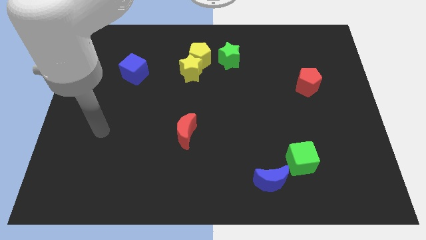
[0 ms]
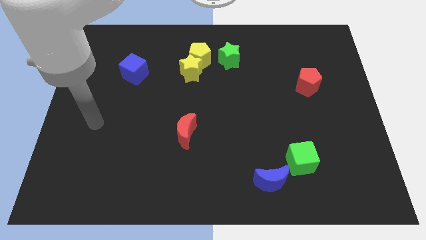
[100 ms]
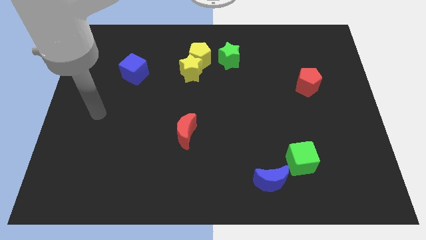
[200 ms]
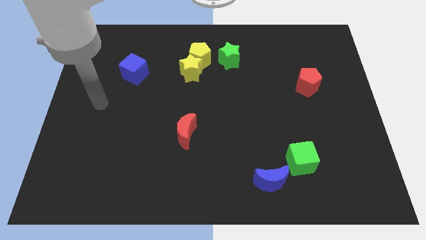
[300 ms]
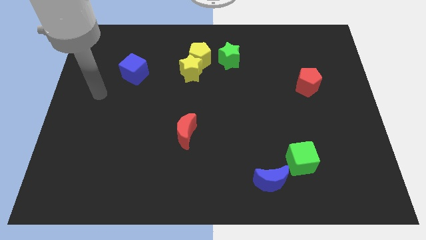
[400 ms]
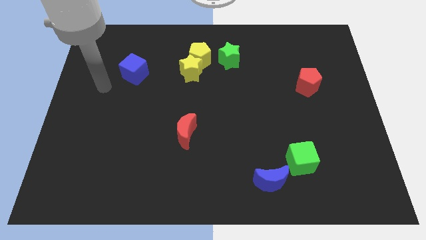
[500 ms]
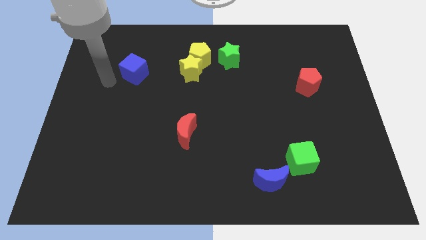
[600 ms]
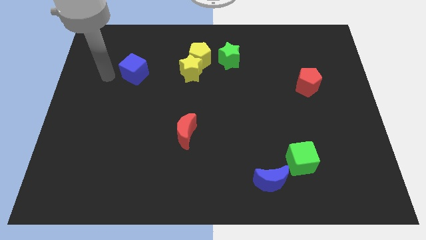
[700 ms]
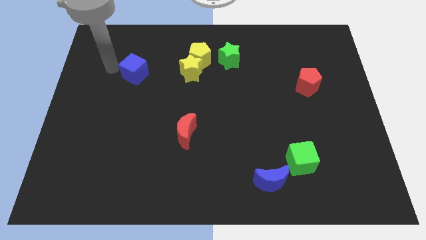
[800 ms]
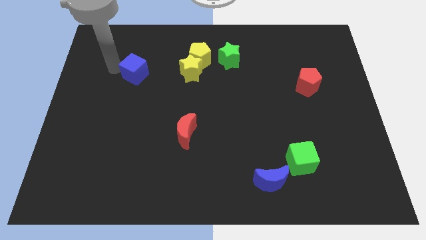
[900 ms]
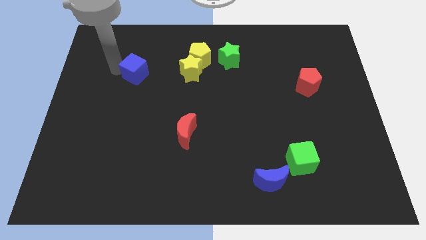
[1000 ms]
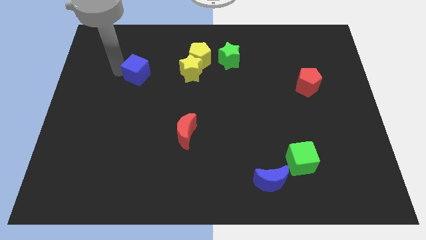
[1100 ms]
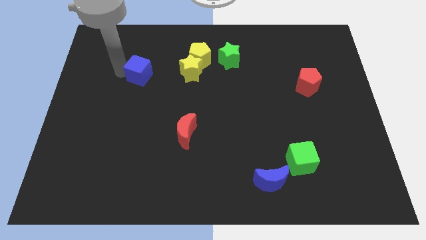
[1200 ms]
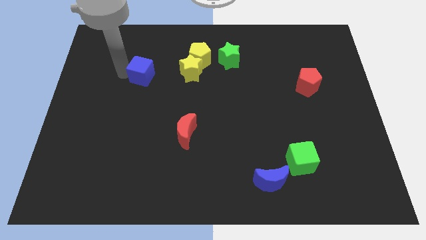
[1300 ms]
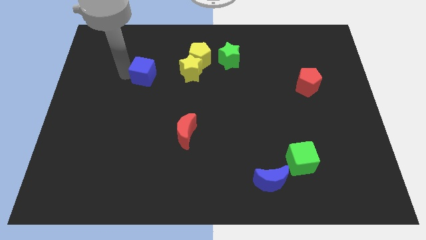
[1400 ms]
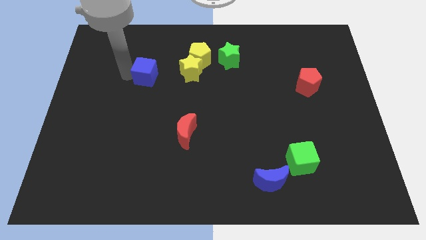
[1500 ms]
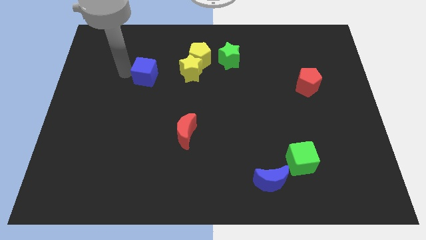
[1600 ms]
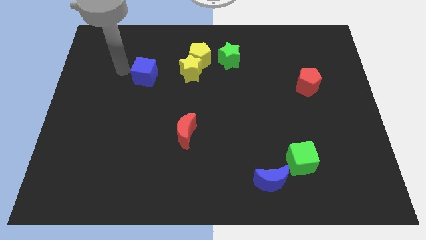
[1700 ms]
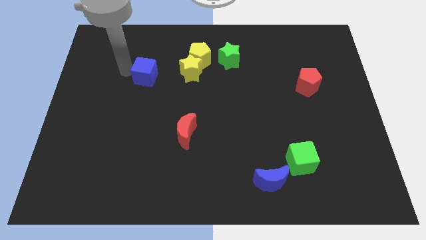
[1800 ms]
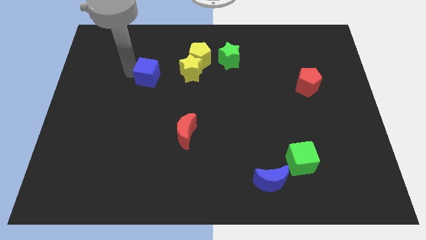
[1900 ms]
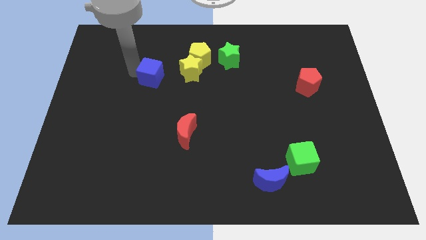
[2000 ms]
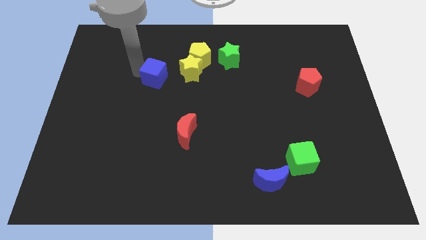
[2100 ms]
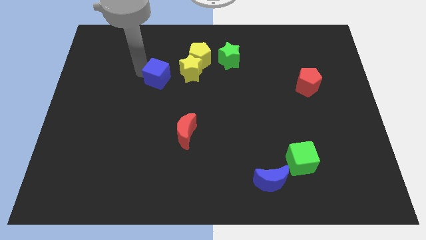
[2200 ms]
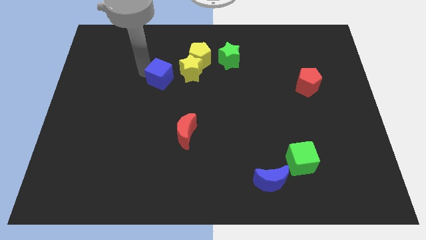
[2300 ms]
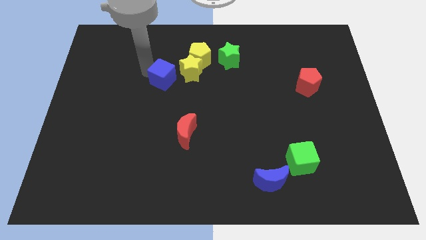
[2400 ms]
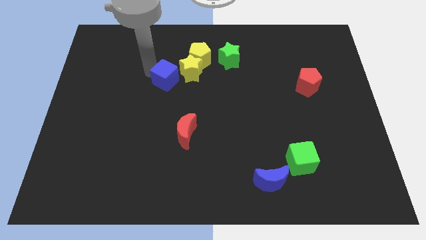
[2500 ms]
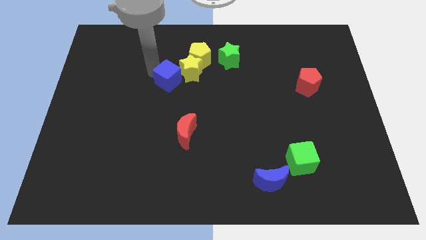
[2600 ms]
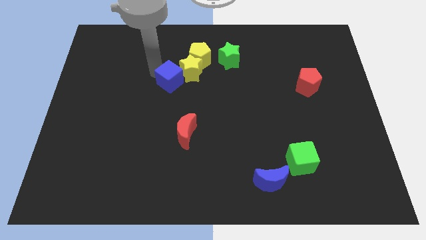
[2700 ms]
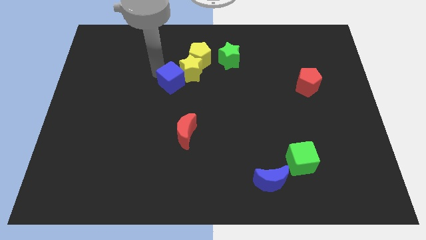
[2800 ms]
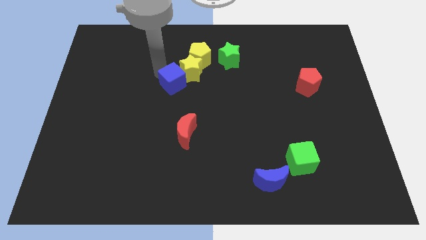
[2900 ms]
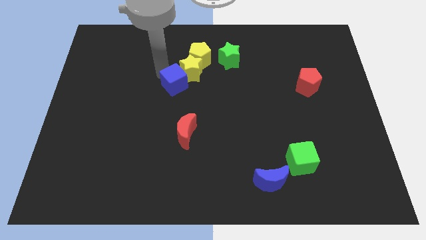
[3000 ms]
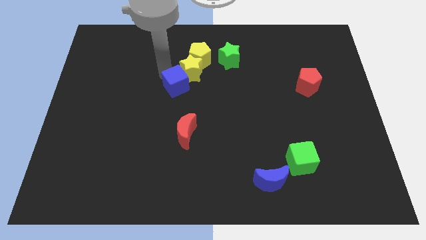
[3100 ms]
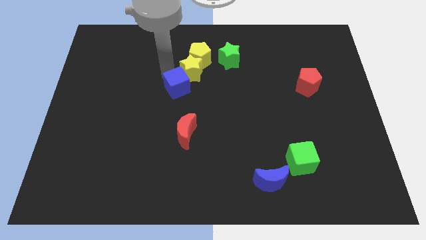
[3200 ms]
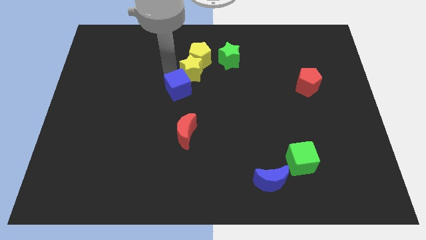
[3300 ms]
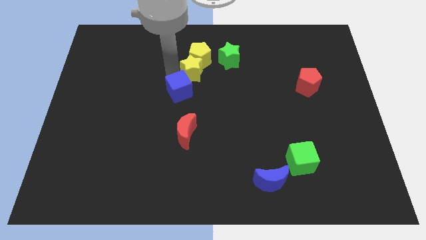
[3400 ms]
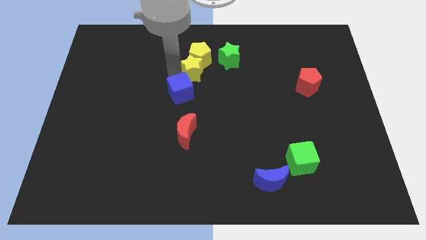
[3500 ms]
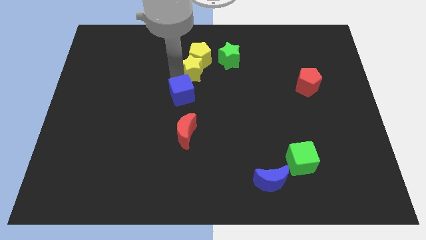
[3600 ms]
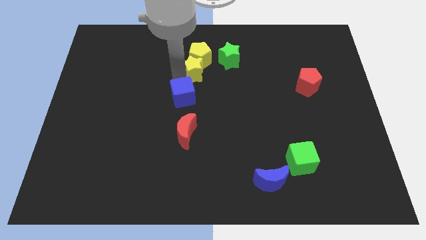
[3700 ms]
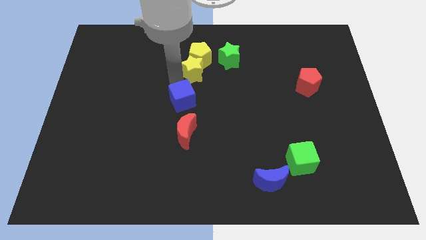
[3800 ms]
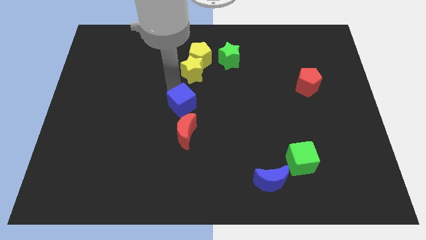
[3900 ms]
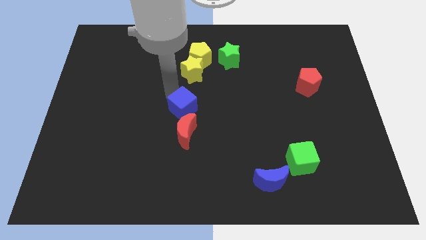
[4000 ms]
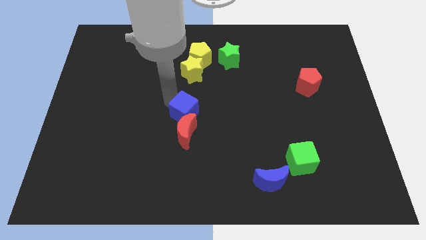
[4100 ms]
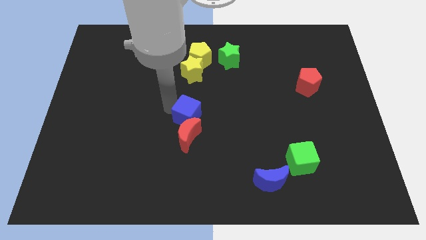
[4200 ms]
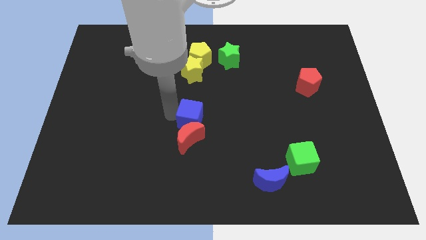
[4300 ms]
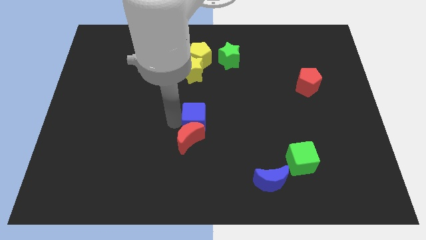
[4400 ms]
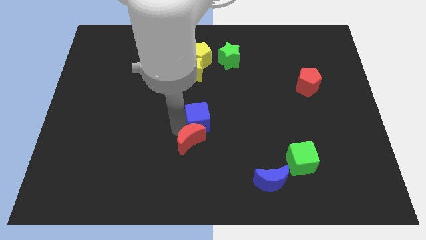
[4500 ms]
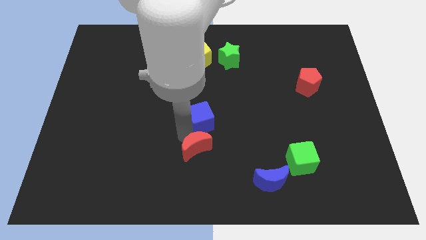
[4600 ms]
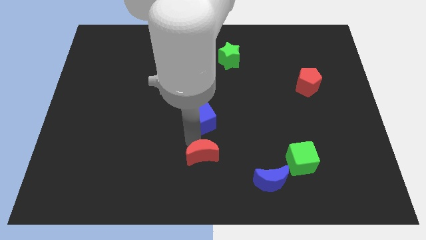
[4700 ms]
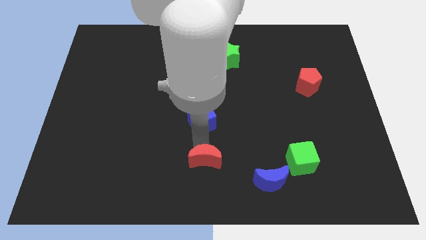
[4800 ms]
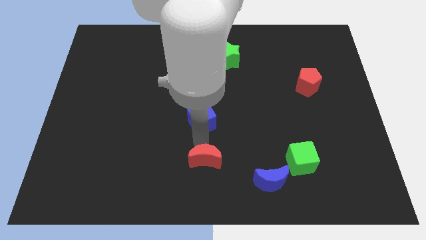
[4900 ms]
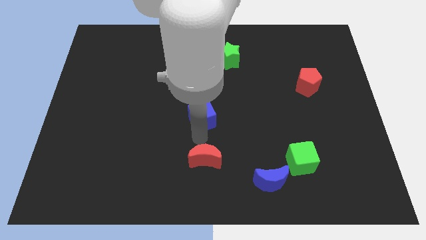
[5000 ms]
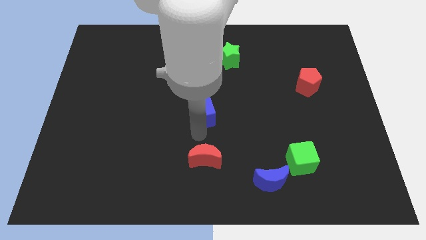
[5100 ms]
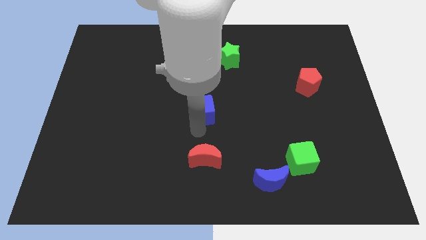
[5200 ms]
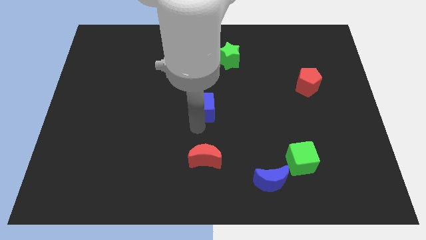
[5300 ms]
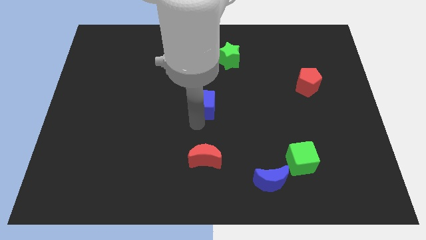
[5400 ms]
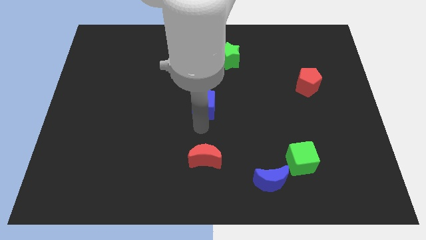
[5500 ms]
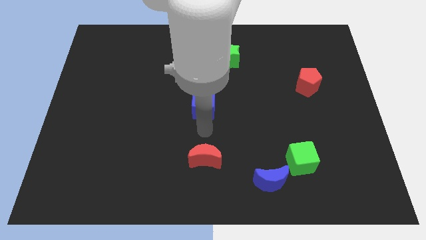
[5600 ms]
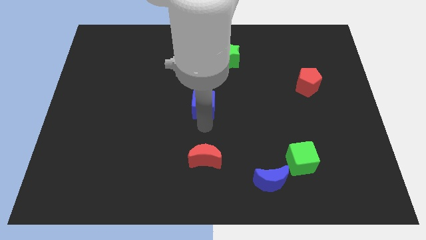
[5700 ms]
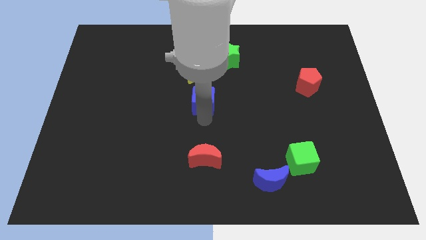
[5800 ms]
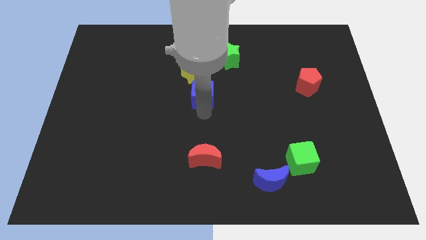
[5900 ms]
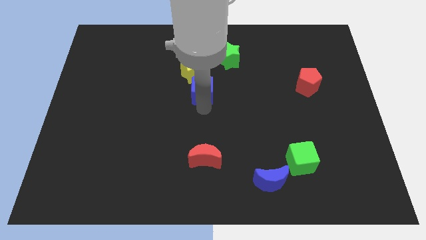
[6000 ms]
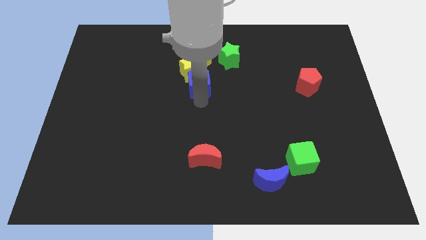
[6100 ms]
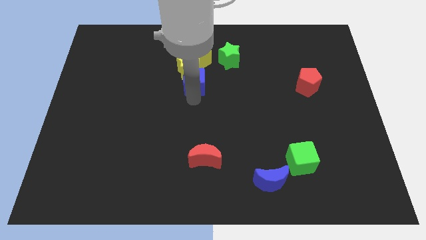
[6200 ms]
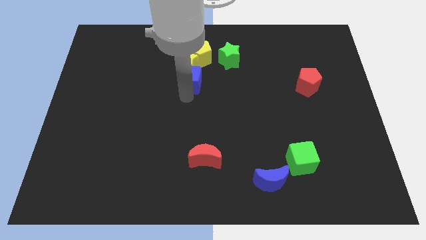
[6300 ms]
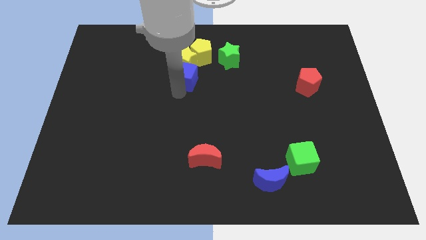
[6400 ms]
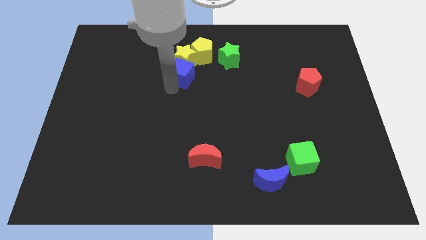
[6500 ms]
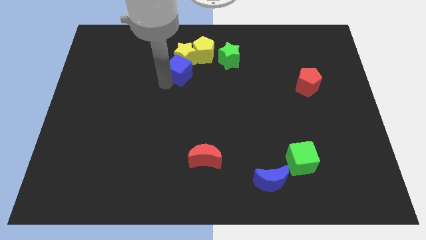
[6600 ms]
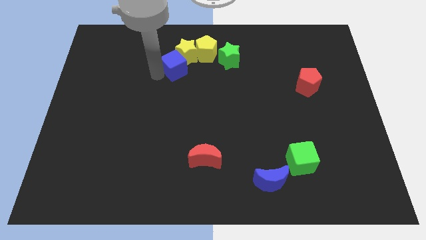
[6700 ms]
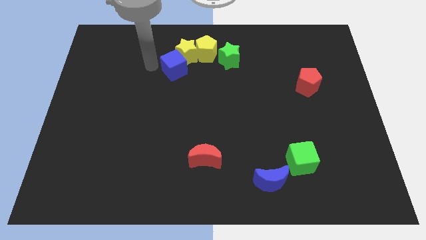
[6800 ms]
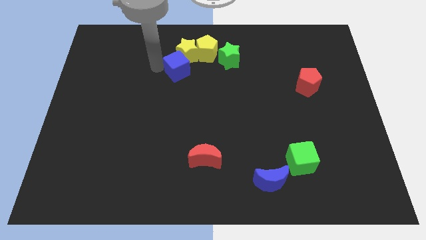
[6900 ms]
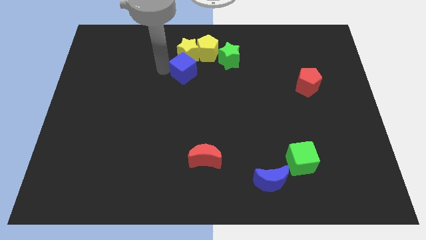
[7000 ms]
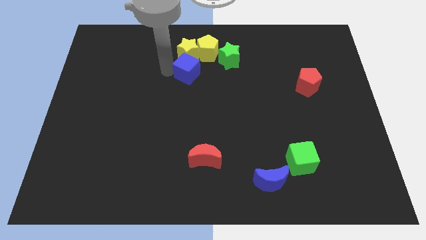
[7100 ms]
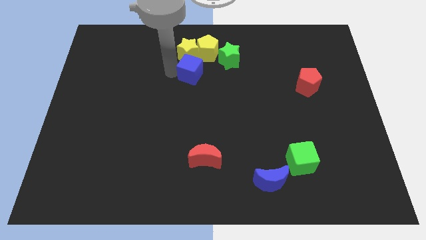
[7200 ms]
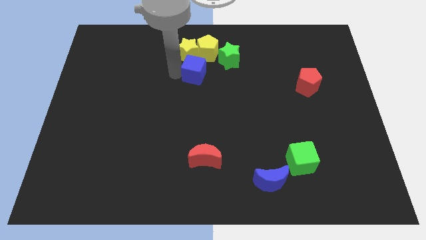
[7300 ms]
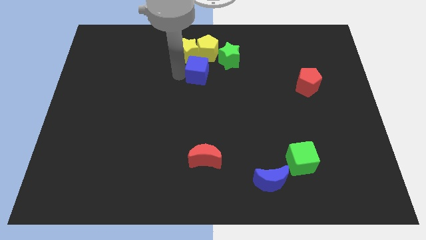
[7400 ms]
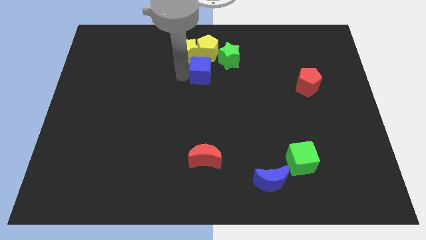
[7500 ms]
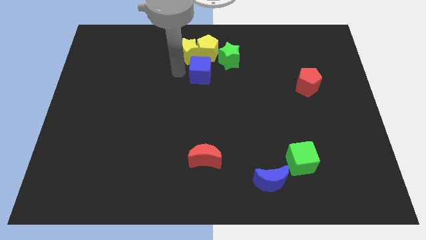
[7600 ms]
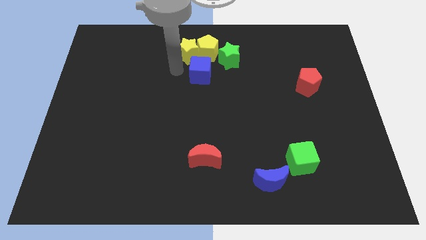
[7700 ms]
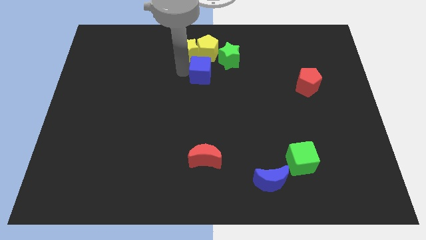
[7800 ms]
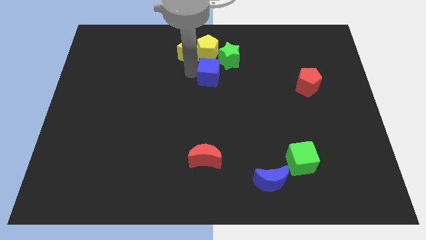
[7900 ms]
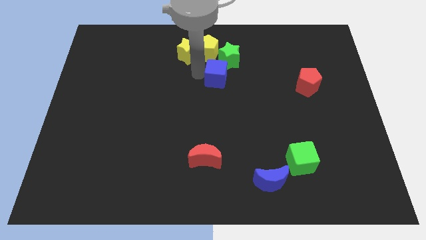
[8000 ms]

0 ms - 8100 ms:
slide the blue cube right
